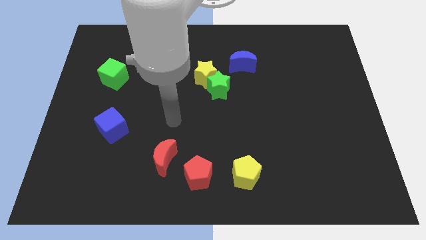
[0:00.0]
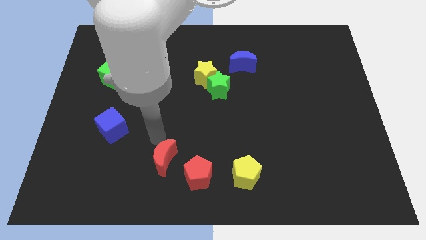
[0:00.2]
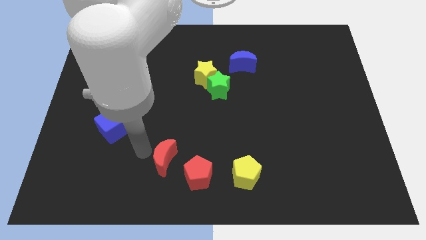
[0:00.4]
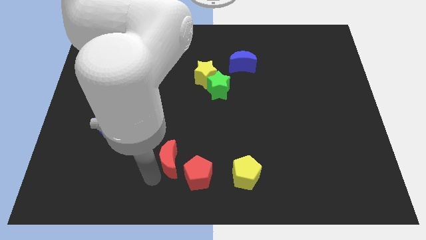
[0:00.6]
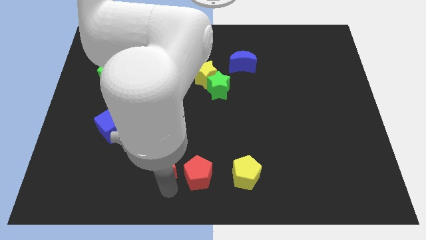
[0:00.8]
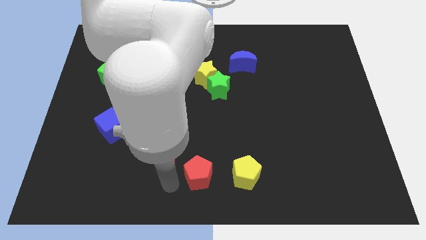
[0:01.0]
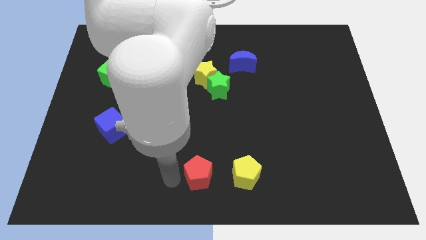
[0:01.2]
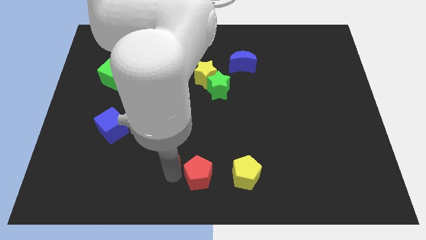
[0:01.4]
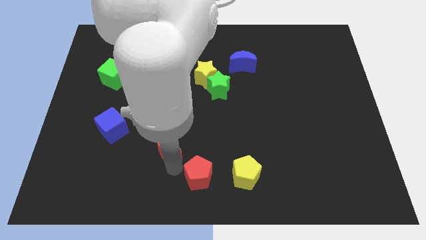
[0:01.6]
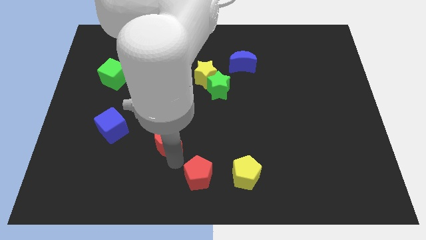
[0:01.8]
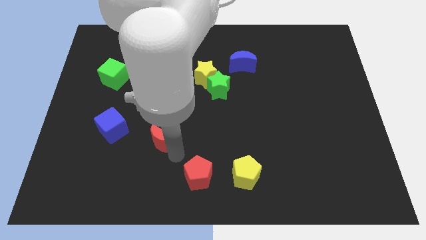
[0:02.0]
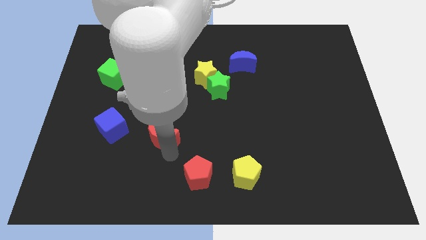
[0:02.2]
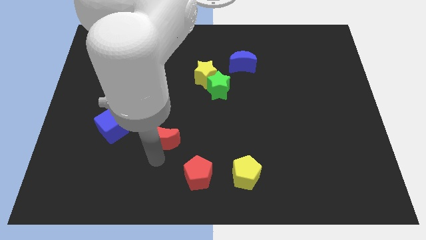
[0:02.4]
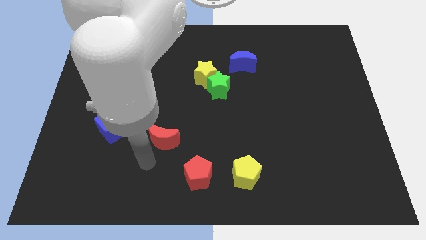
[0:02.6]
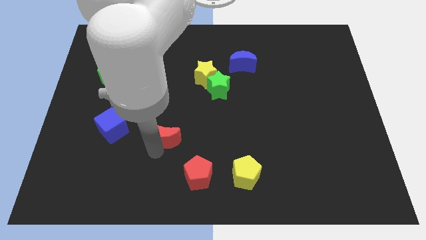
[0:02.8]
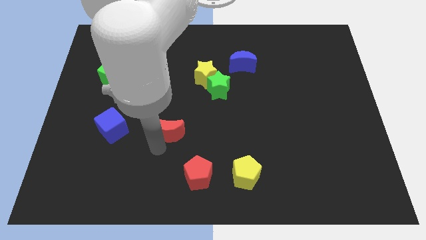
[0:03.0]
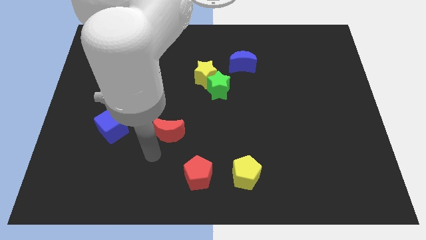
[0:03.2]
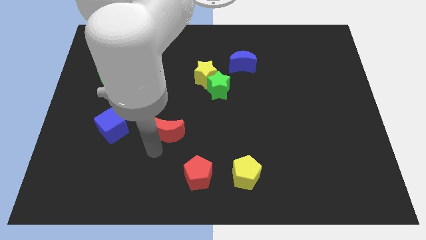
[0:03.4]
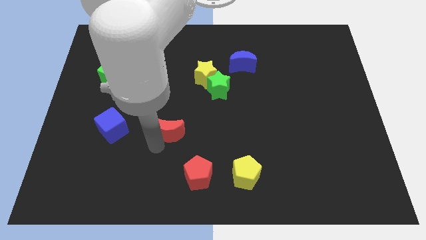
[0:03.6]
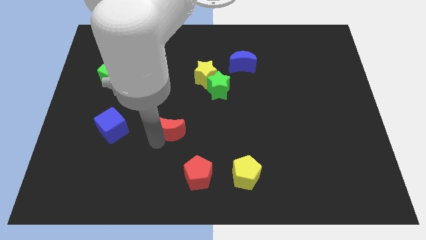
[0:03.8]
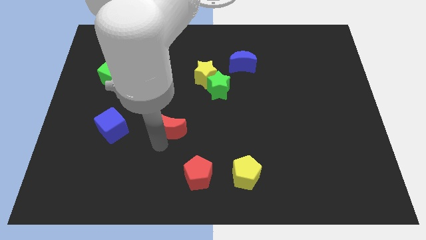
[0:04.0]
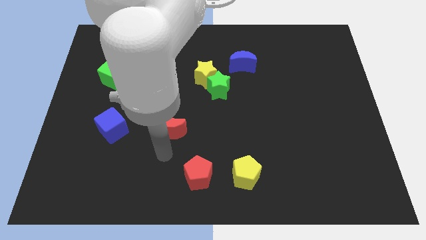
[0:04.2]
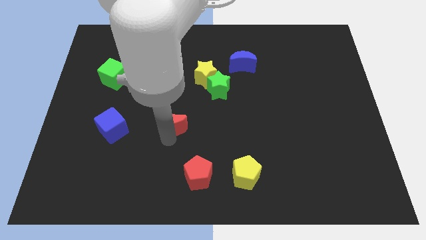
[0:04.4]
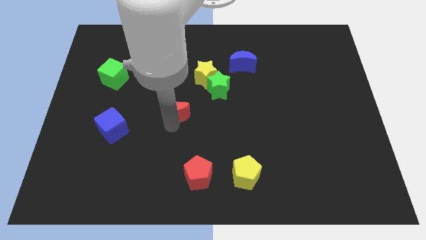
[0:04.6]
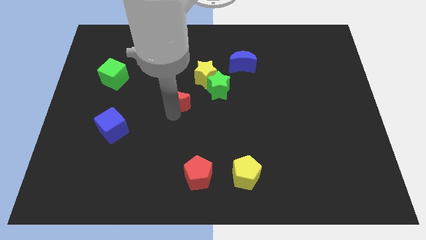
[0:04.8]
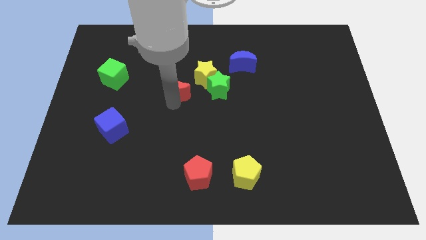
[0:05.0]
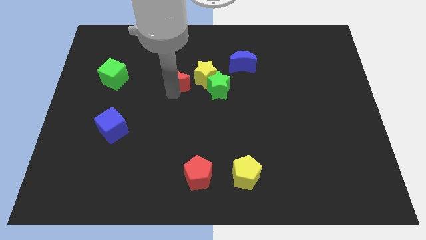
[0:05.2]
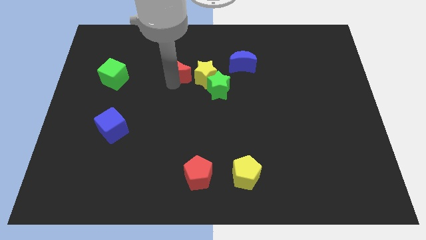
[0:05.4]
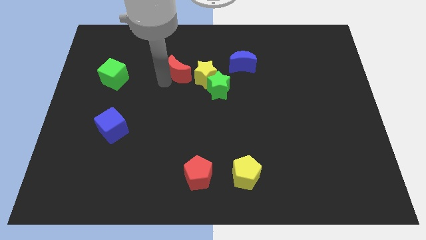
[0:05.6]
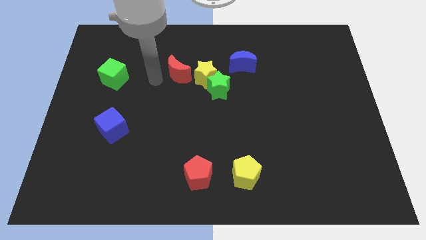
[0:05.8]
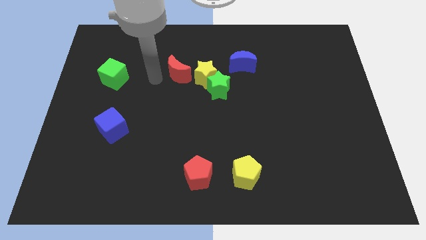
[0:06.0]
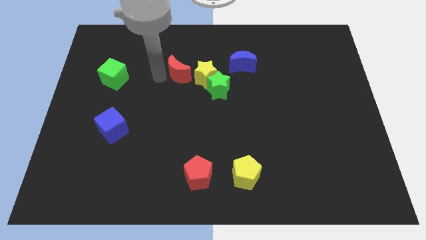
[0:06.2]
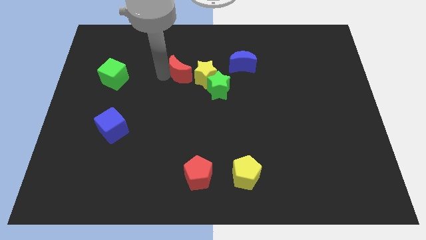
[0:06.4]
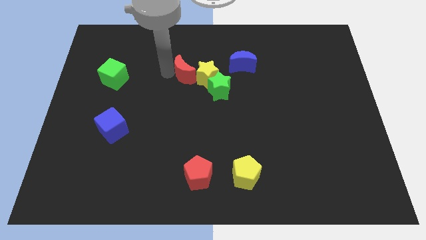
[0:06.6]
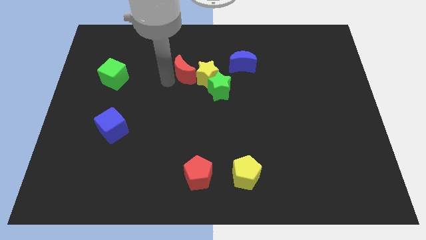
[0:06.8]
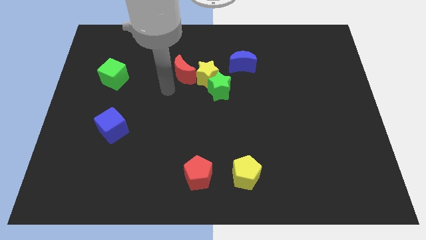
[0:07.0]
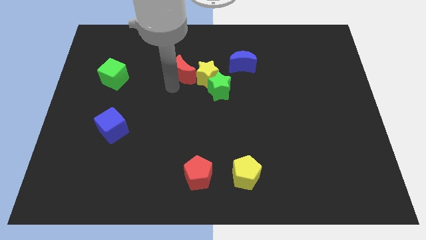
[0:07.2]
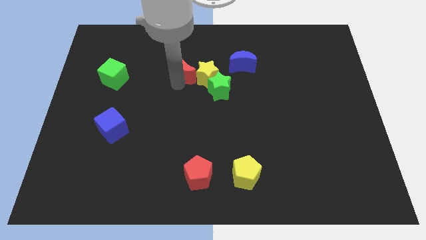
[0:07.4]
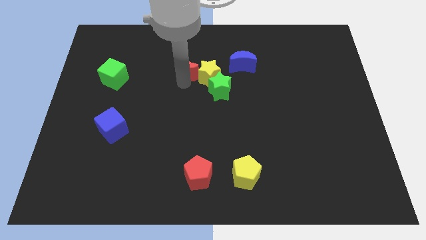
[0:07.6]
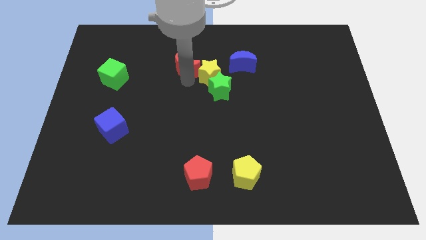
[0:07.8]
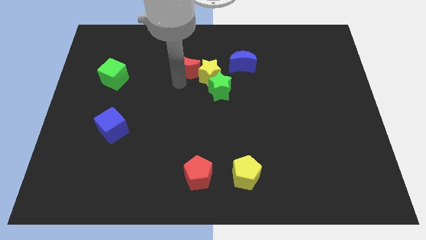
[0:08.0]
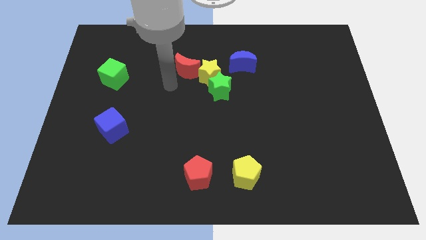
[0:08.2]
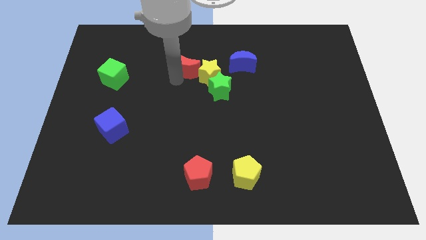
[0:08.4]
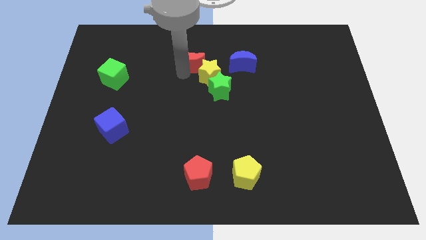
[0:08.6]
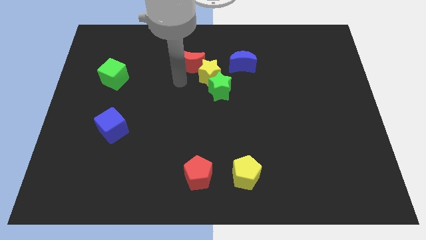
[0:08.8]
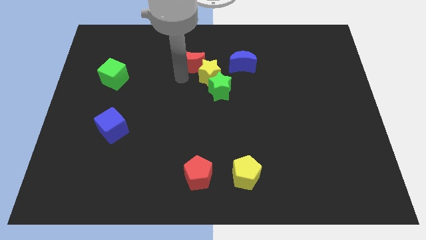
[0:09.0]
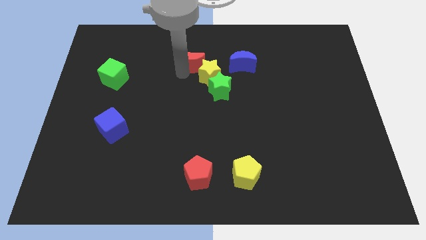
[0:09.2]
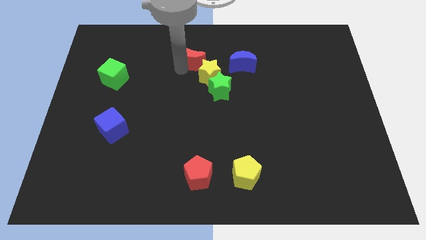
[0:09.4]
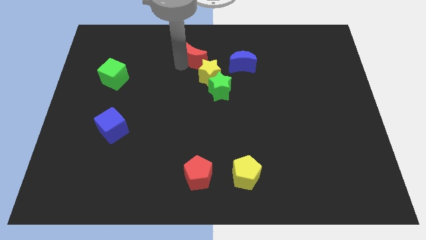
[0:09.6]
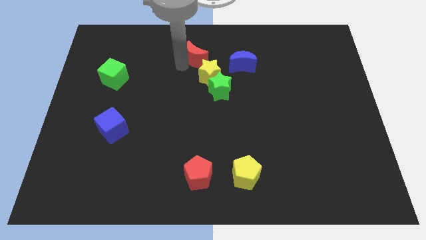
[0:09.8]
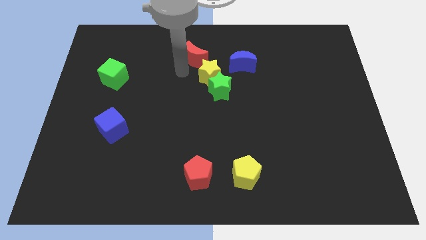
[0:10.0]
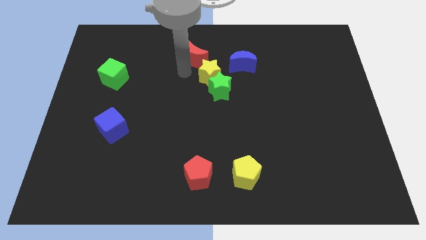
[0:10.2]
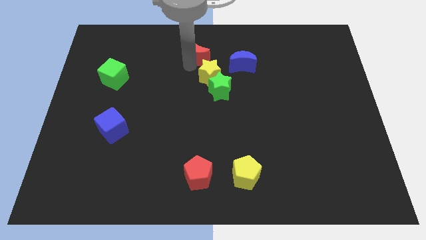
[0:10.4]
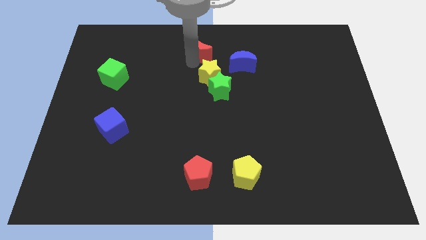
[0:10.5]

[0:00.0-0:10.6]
move the red moon to the towards your base

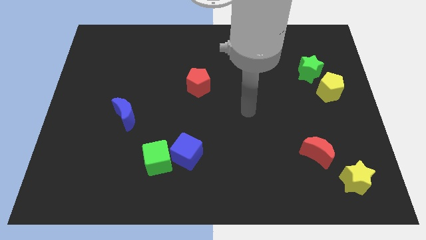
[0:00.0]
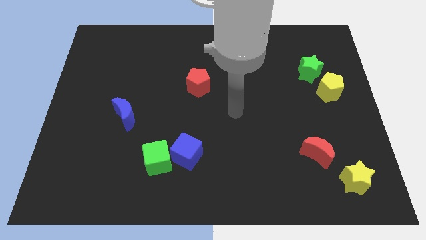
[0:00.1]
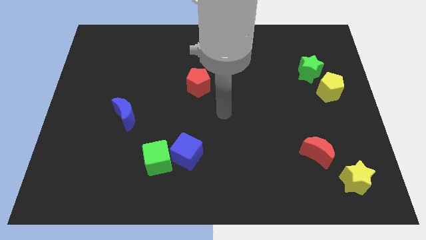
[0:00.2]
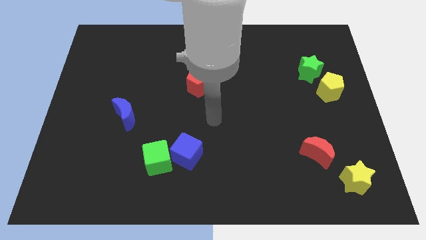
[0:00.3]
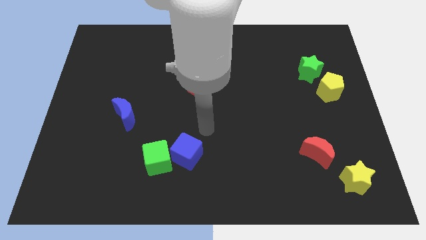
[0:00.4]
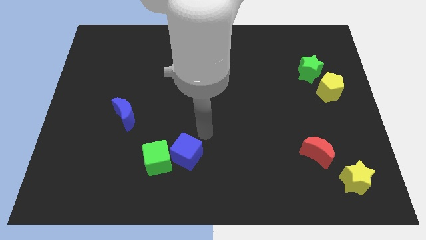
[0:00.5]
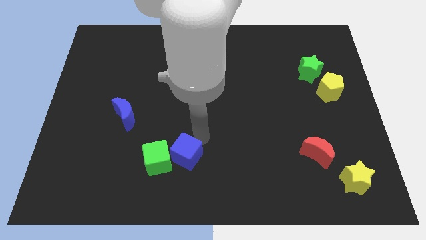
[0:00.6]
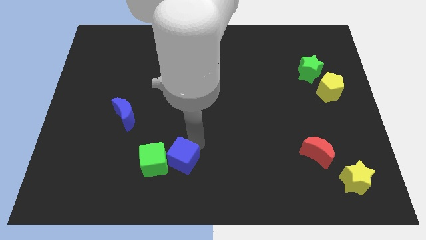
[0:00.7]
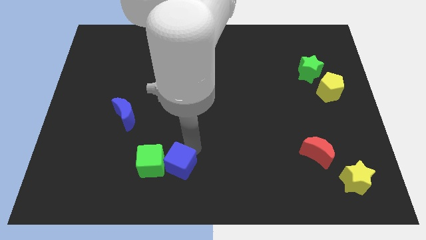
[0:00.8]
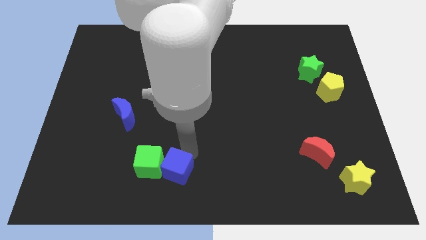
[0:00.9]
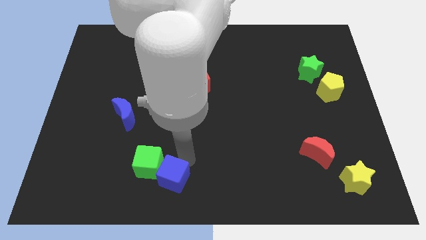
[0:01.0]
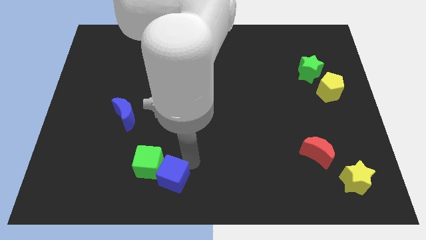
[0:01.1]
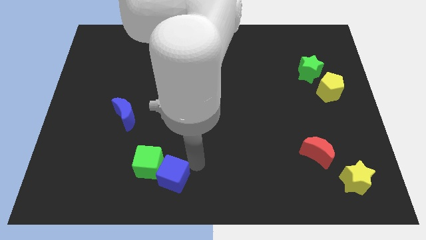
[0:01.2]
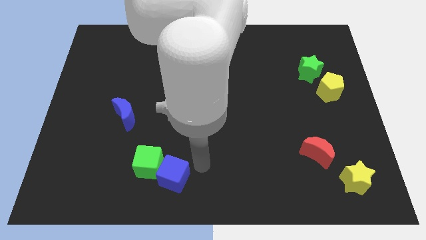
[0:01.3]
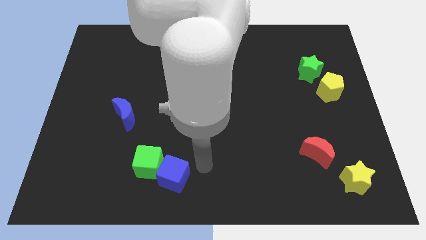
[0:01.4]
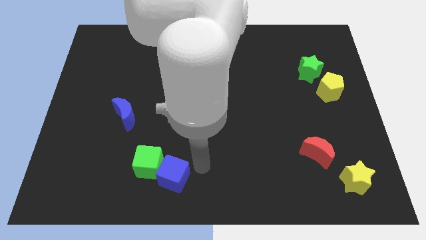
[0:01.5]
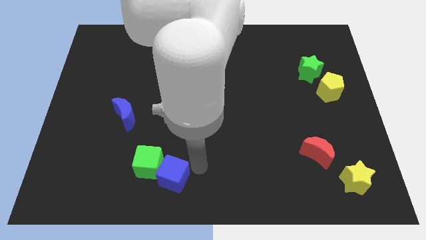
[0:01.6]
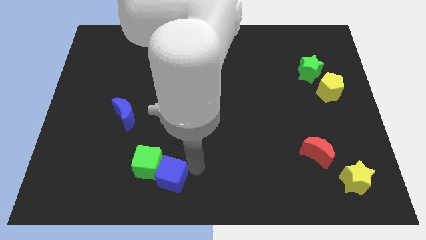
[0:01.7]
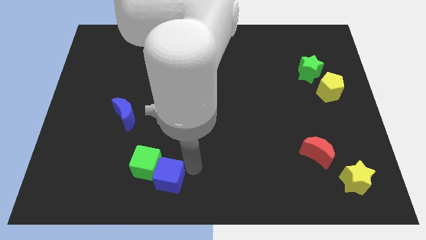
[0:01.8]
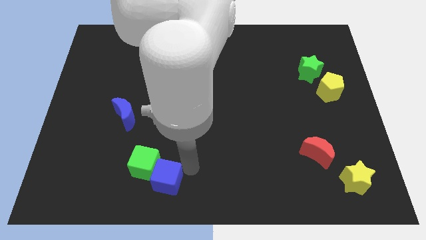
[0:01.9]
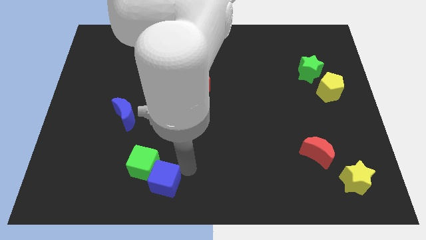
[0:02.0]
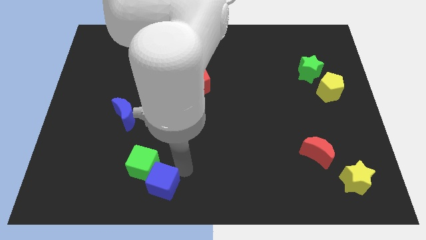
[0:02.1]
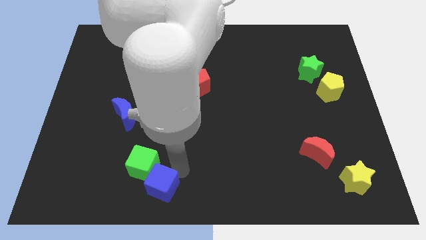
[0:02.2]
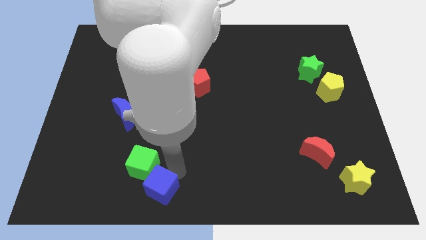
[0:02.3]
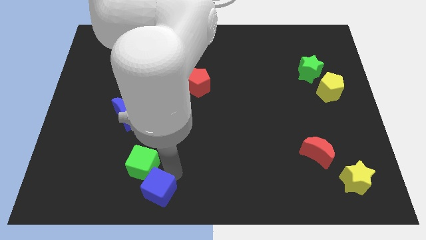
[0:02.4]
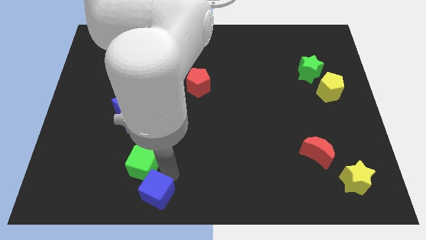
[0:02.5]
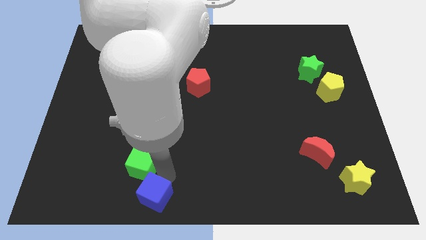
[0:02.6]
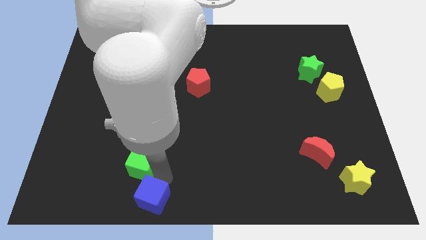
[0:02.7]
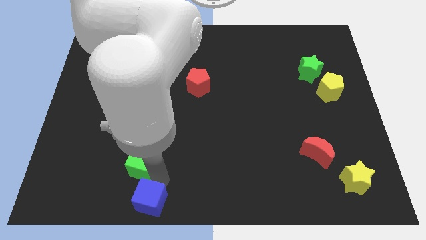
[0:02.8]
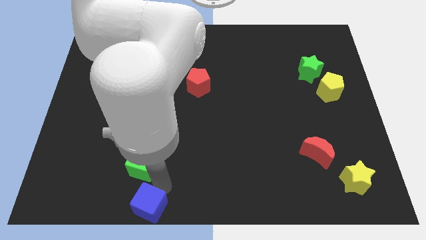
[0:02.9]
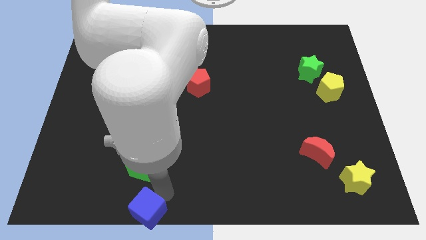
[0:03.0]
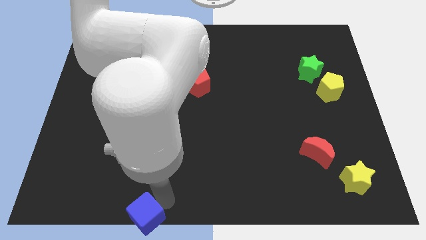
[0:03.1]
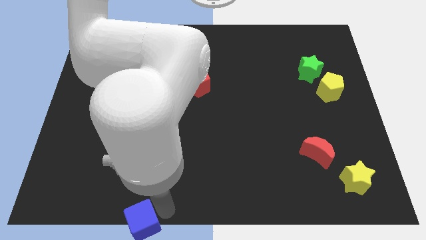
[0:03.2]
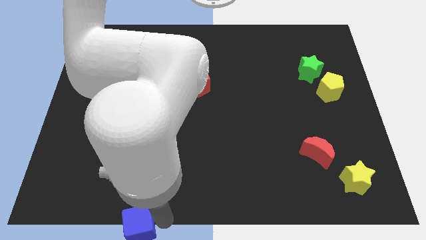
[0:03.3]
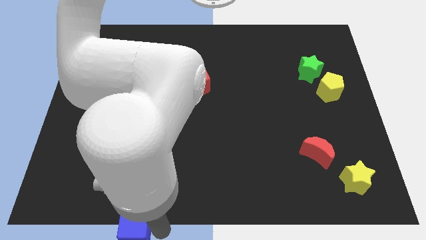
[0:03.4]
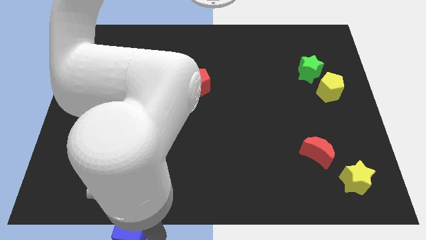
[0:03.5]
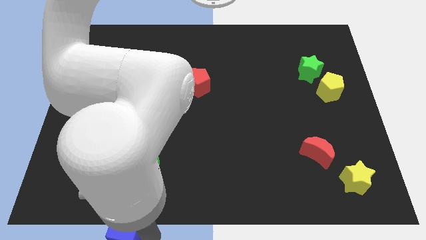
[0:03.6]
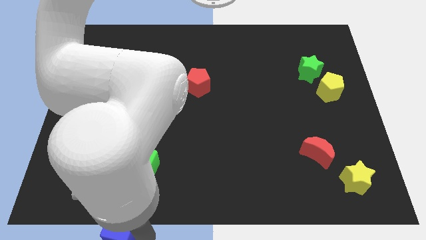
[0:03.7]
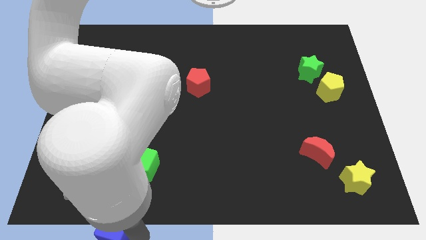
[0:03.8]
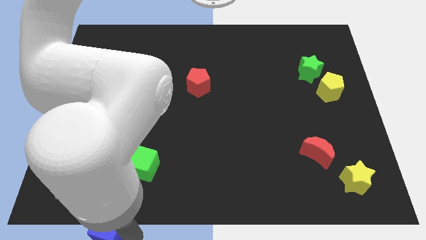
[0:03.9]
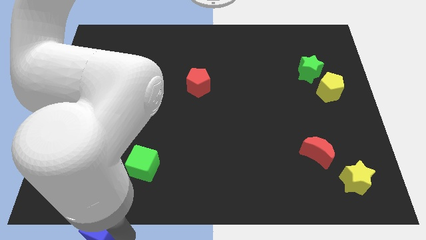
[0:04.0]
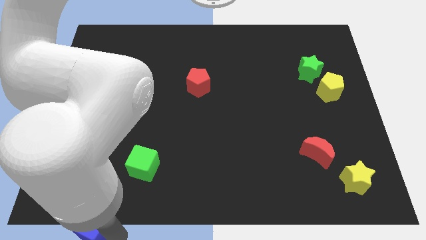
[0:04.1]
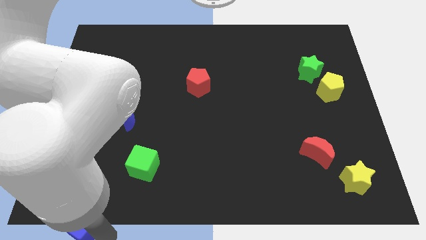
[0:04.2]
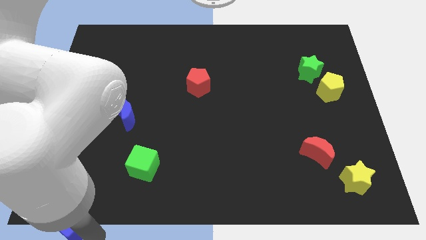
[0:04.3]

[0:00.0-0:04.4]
push the blue cube to the lower left corner
